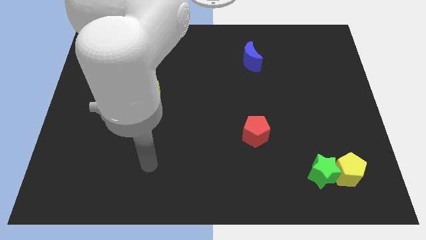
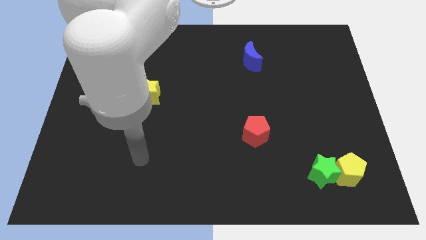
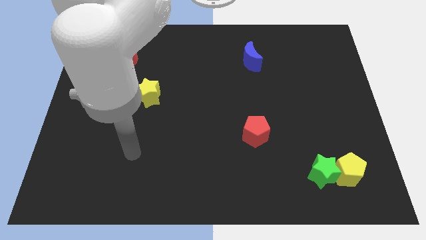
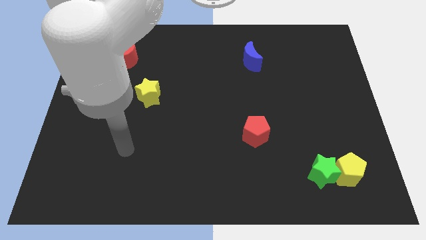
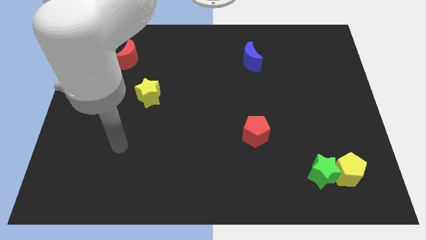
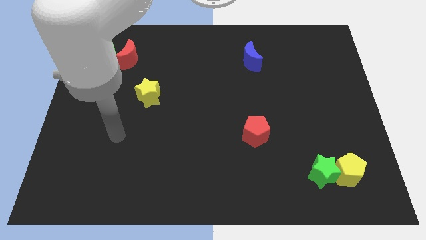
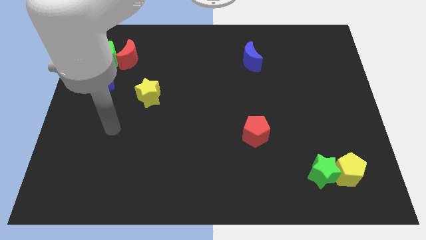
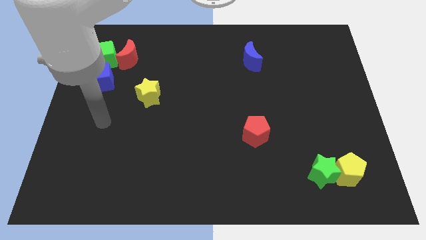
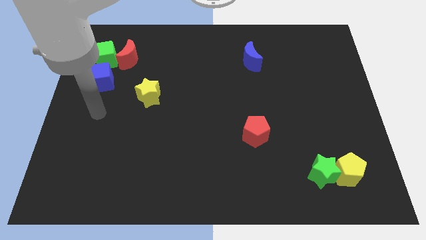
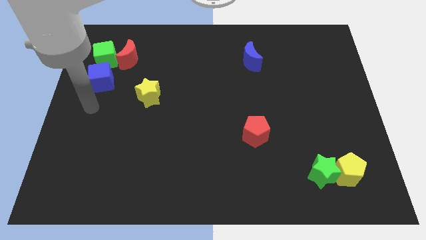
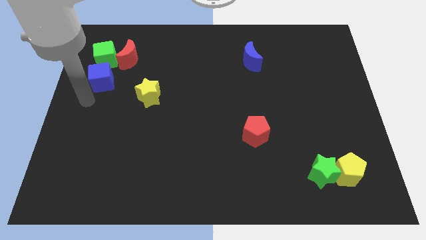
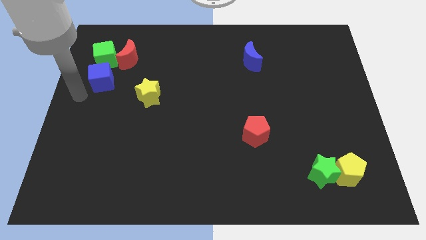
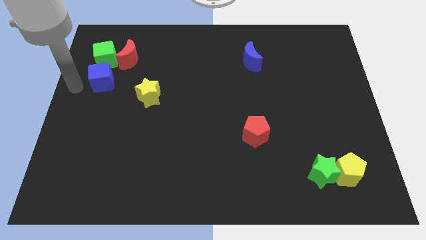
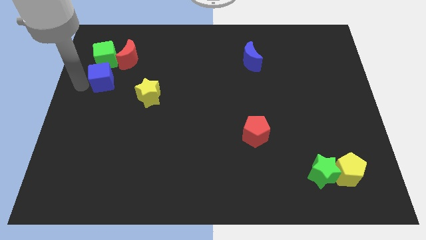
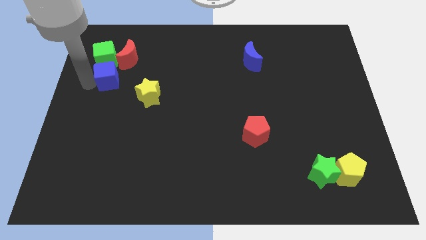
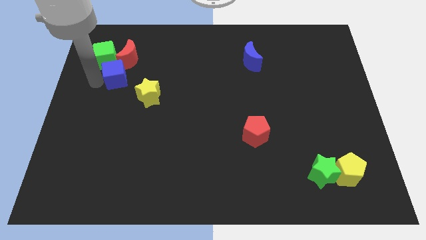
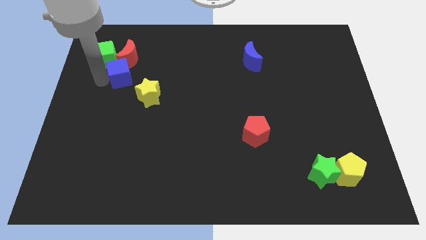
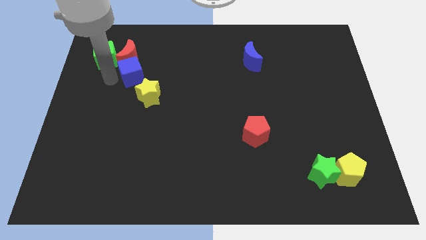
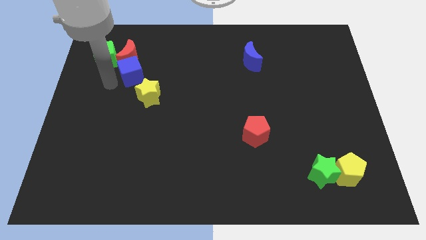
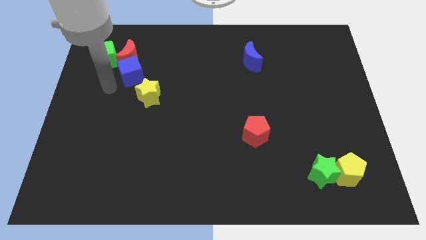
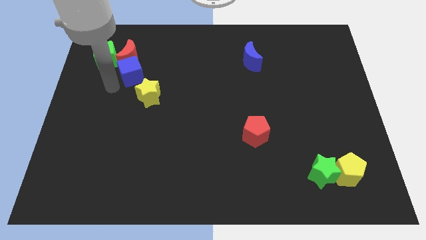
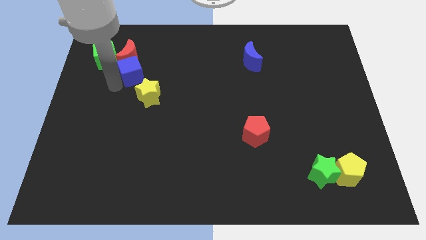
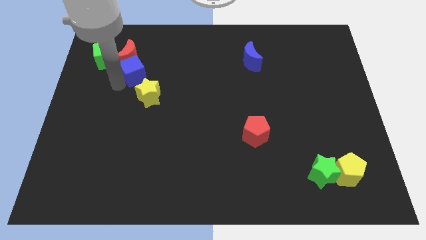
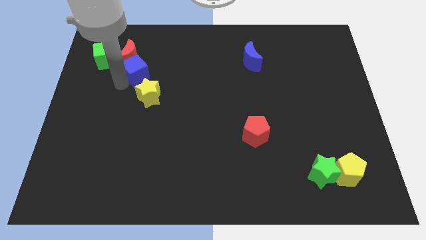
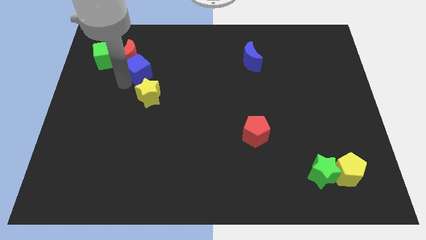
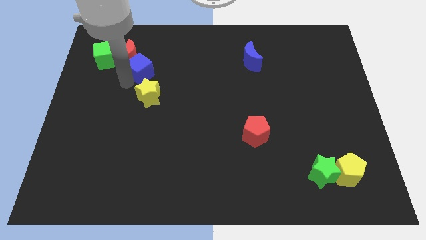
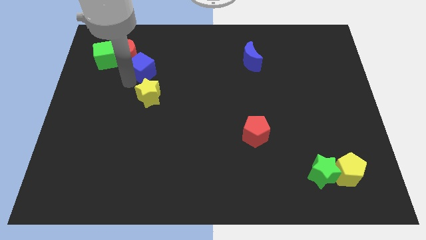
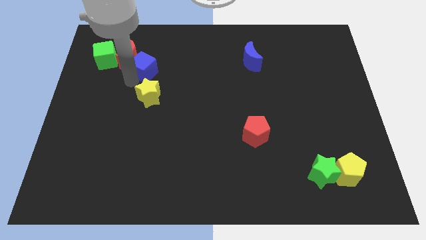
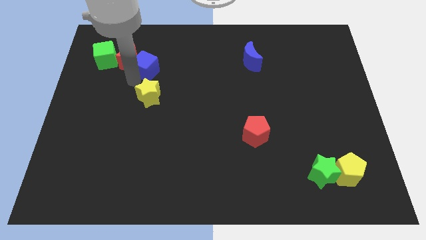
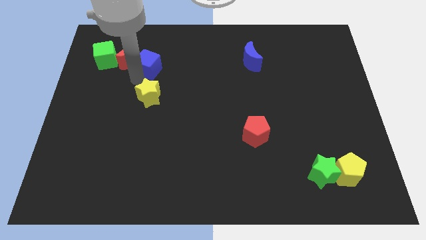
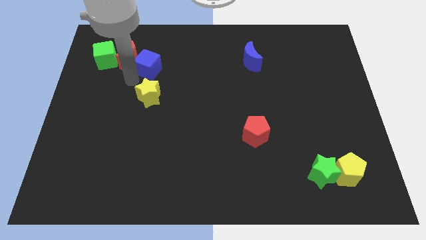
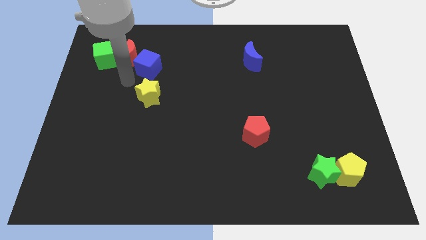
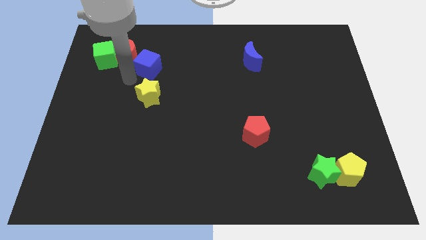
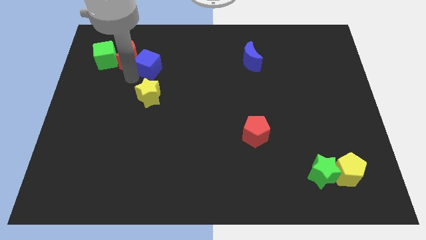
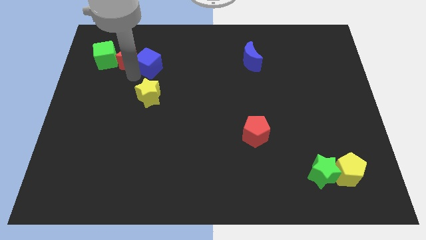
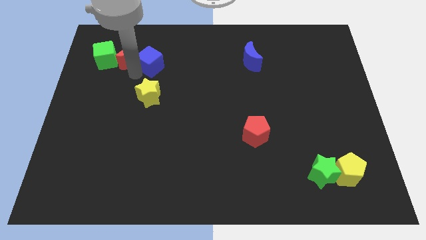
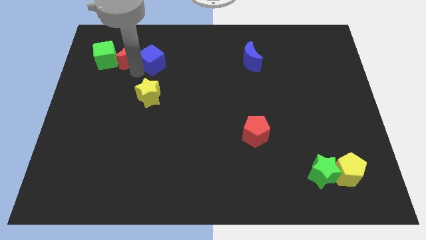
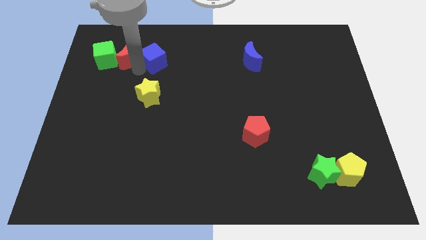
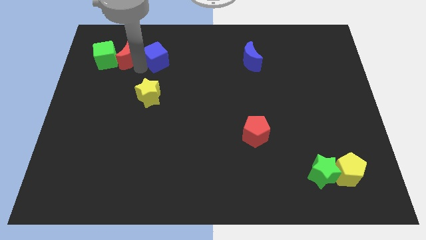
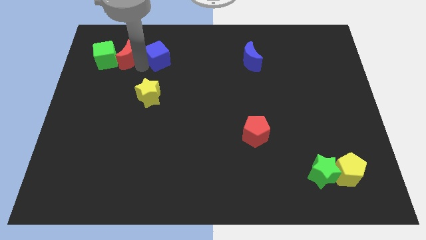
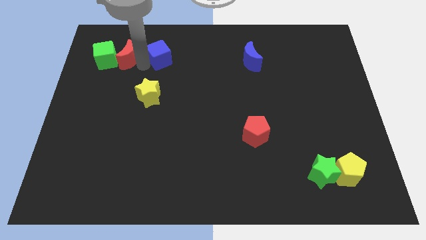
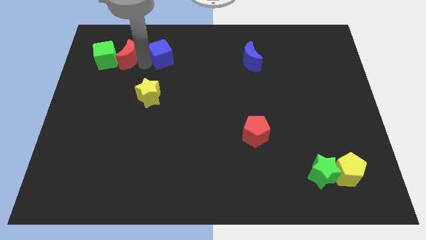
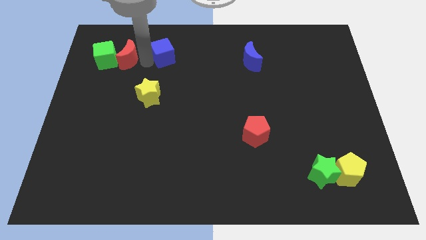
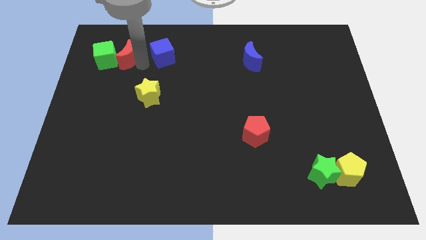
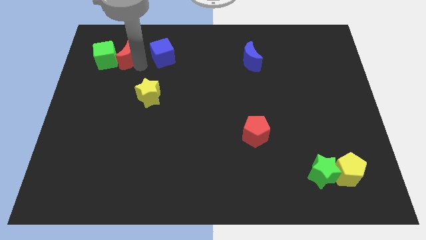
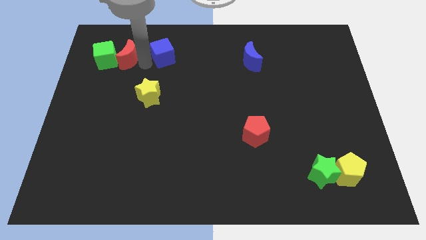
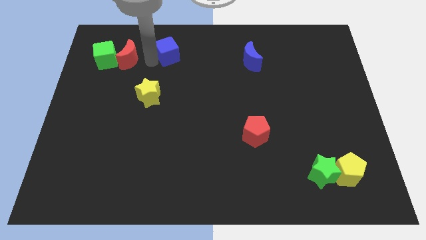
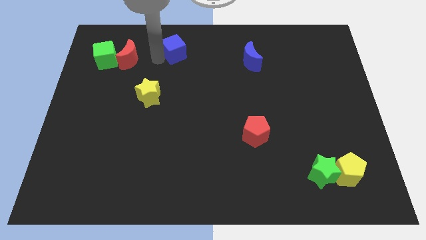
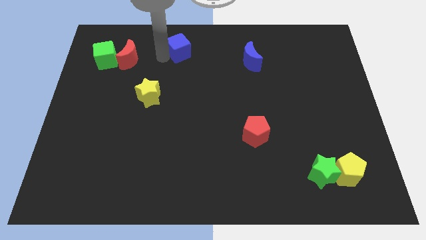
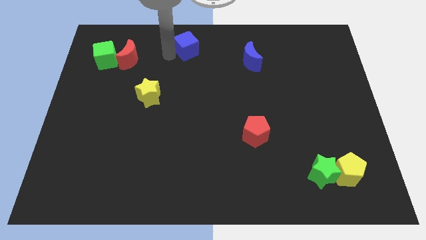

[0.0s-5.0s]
move the blue cube to the top

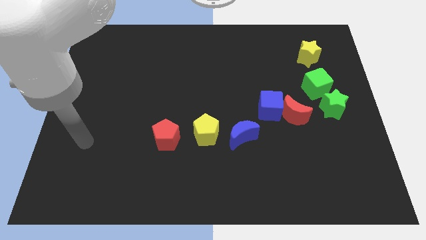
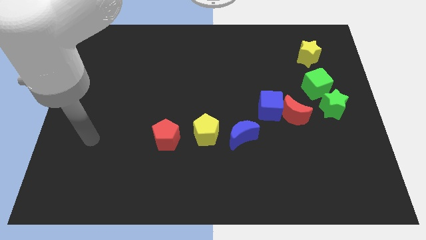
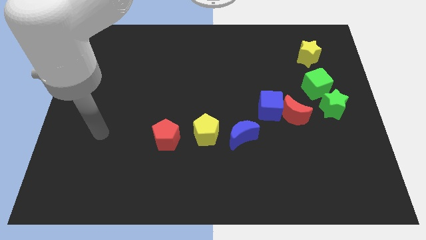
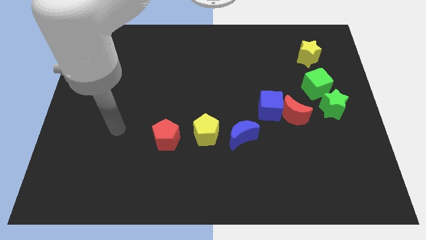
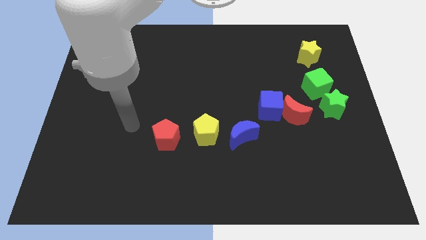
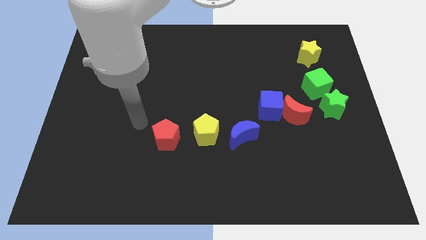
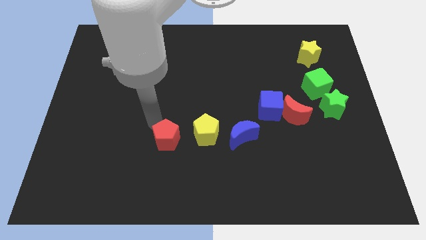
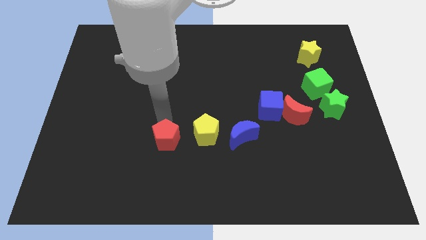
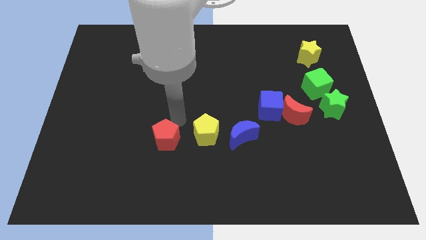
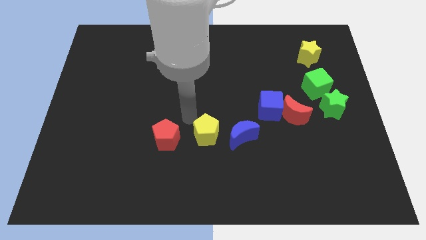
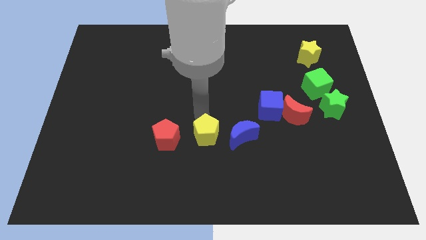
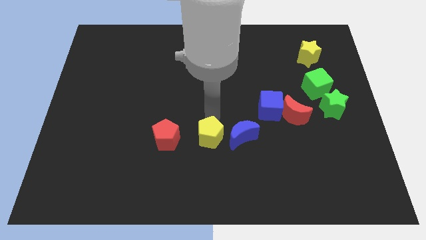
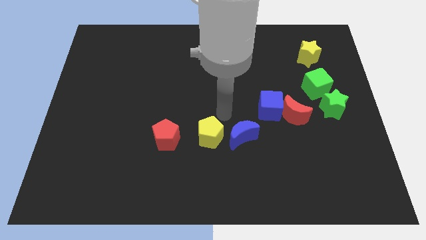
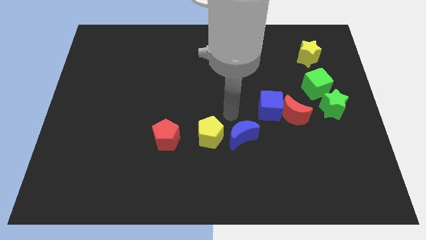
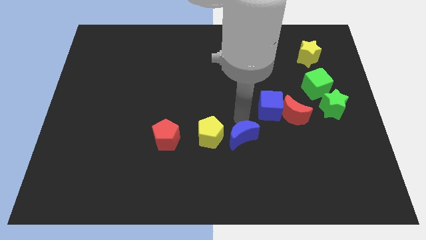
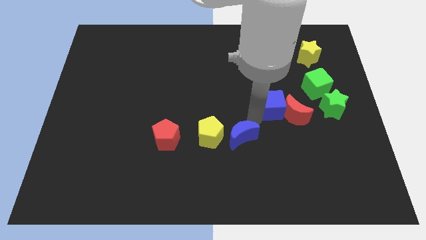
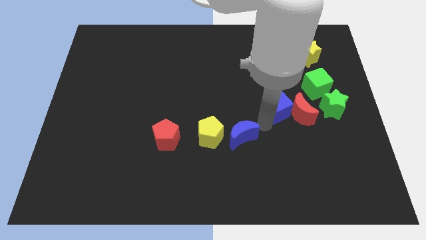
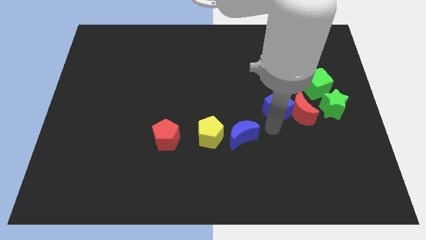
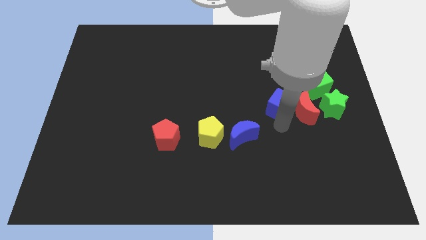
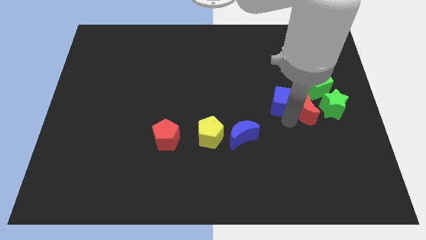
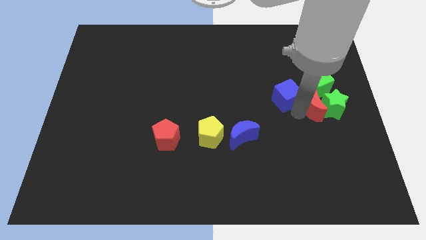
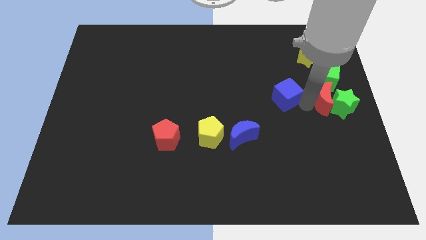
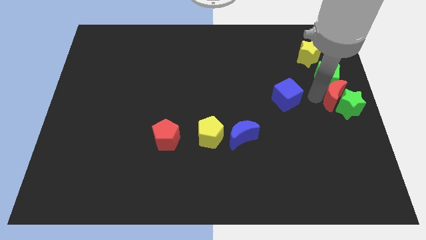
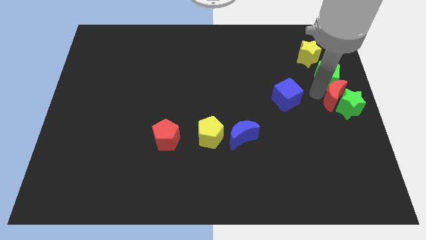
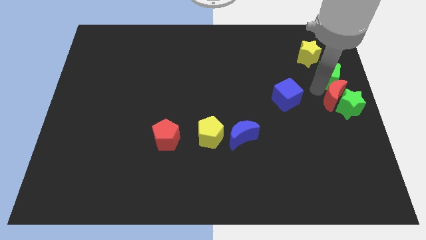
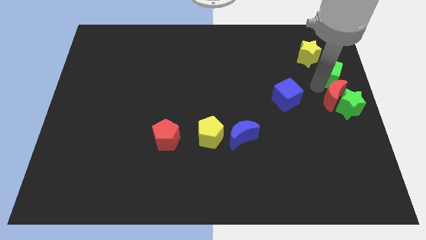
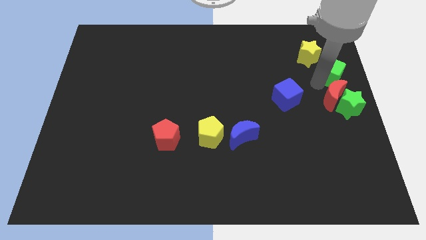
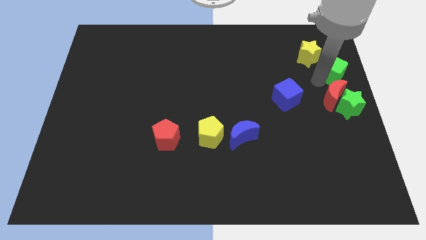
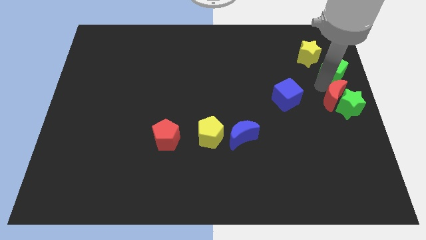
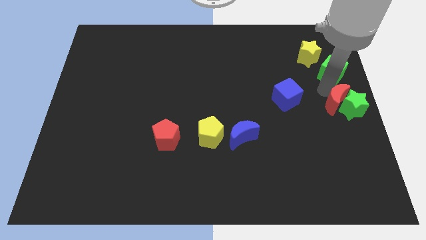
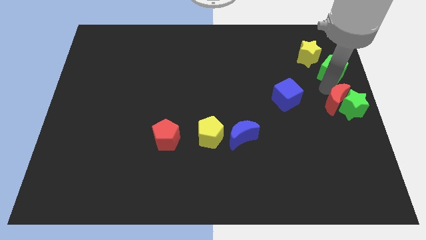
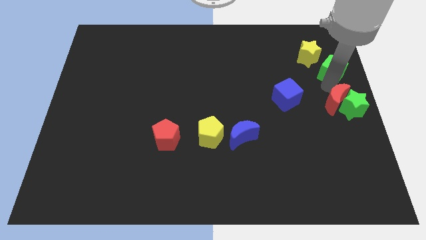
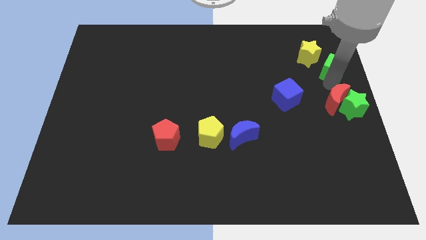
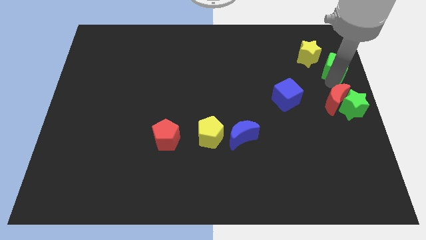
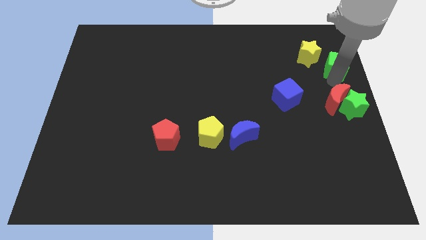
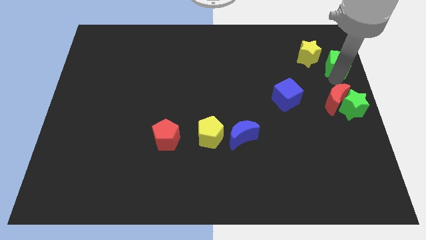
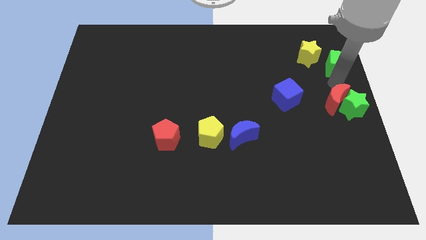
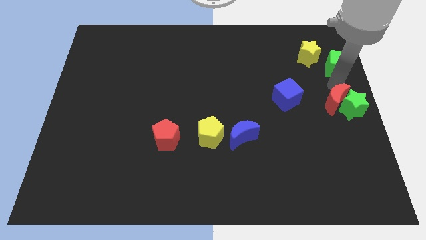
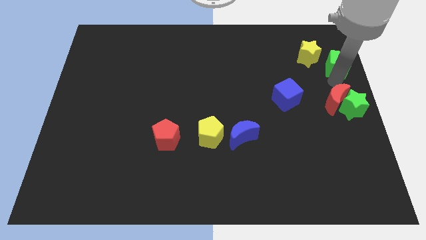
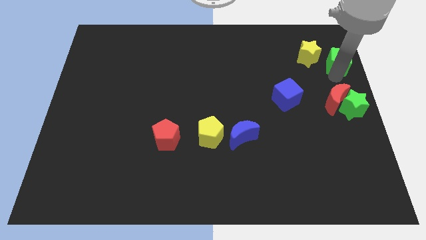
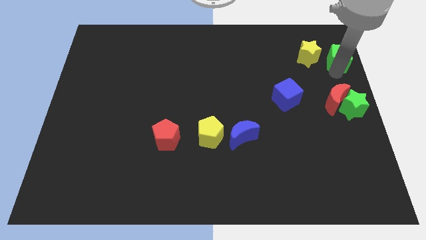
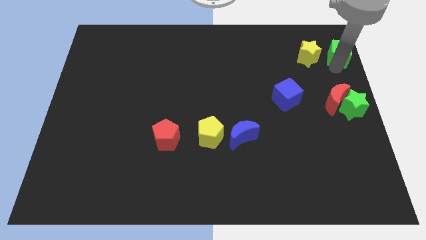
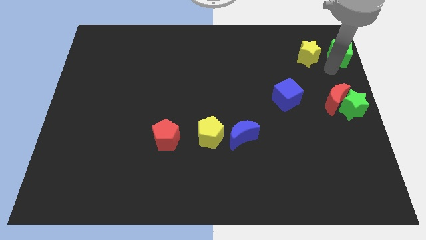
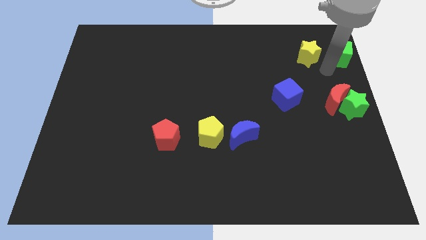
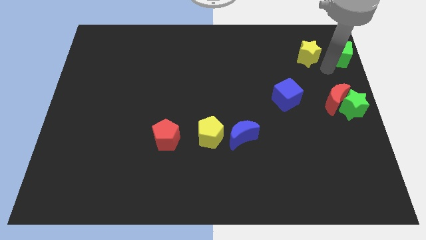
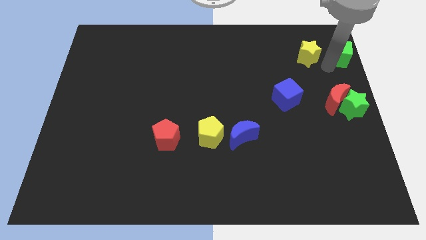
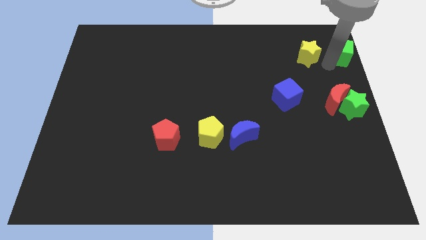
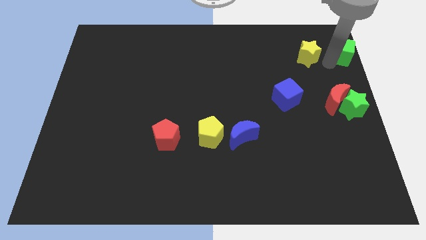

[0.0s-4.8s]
put the green cube to the top right
